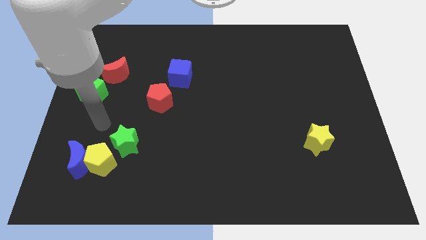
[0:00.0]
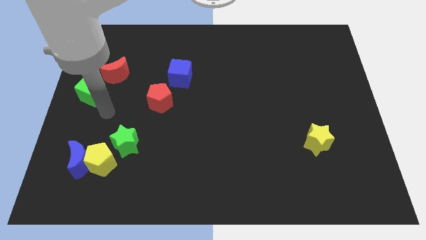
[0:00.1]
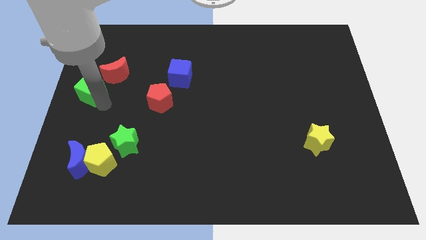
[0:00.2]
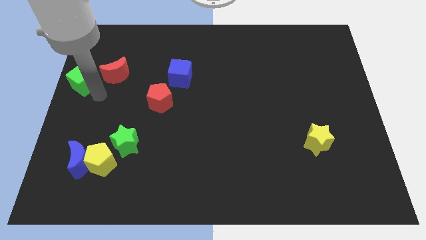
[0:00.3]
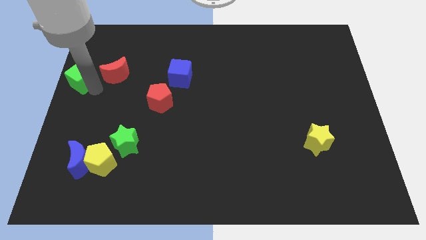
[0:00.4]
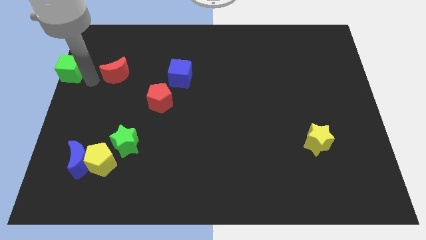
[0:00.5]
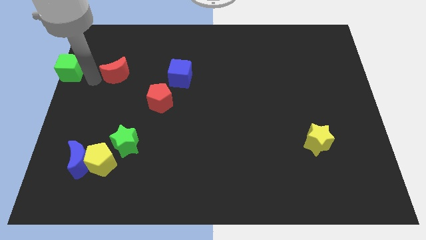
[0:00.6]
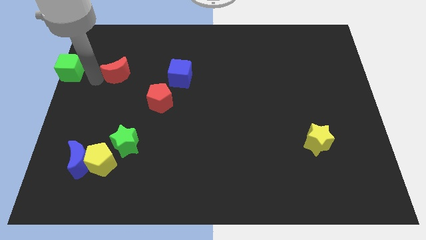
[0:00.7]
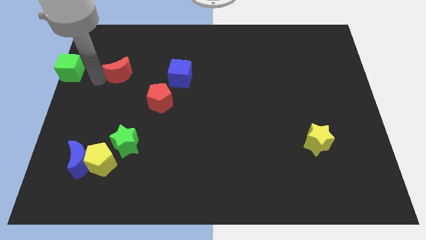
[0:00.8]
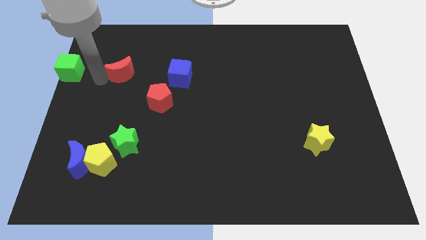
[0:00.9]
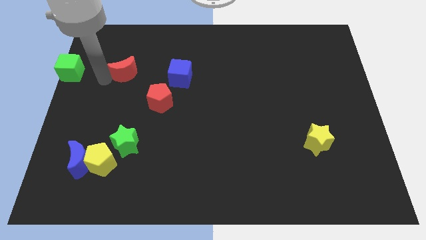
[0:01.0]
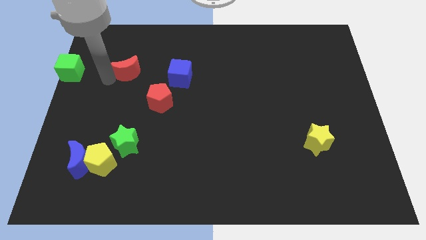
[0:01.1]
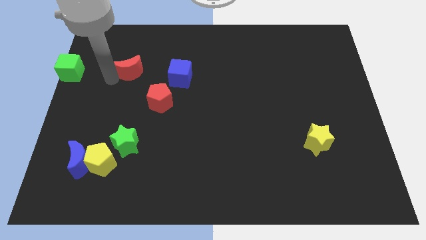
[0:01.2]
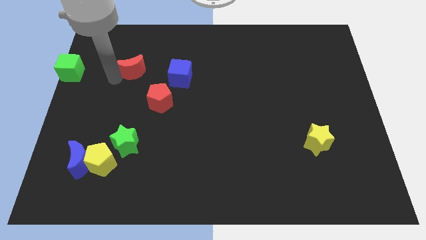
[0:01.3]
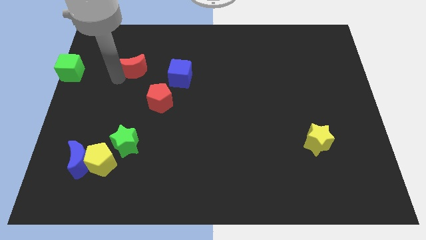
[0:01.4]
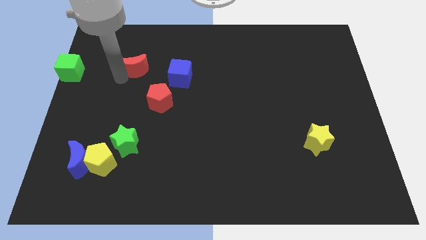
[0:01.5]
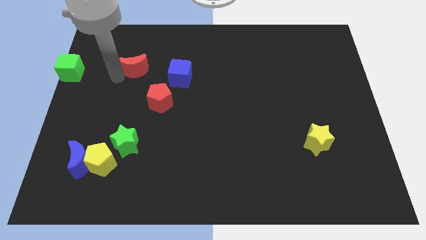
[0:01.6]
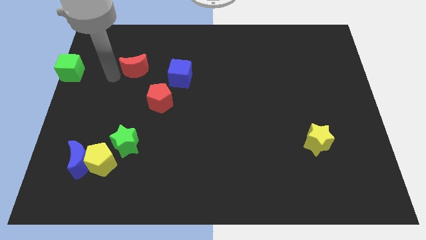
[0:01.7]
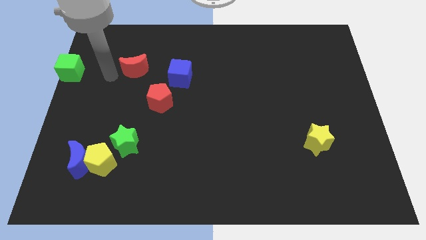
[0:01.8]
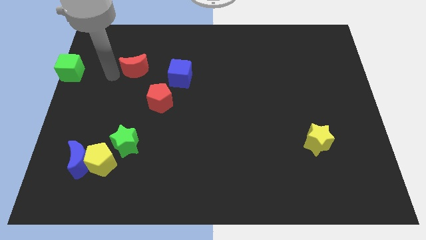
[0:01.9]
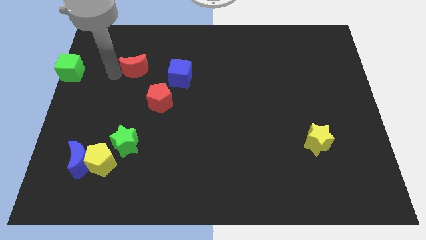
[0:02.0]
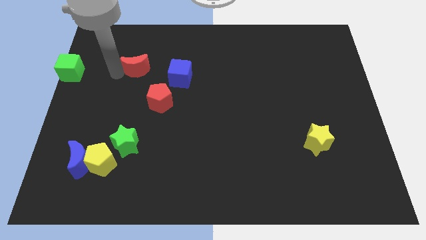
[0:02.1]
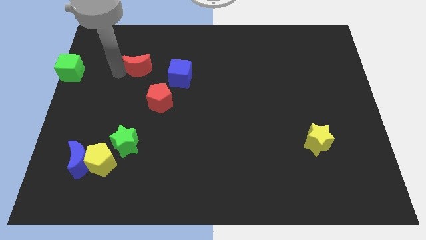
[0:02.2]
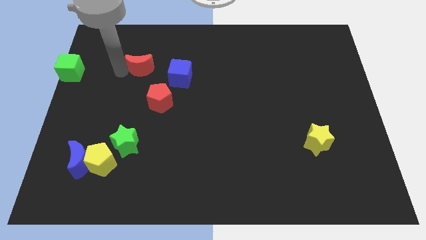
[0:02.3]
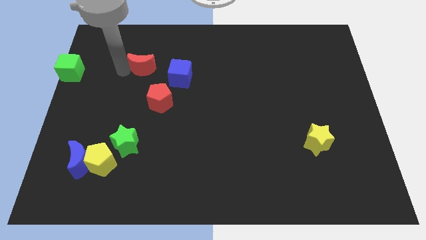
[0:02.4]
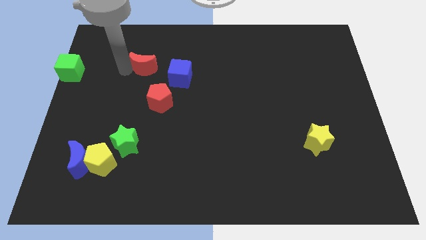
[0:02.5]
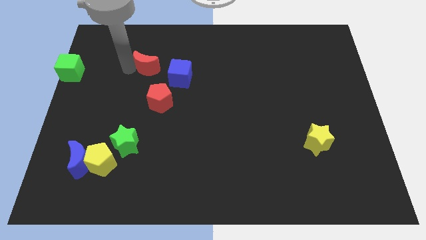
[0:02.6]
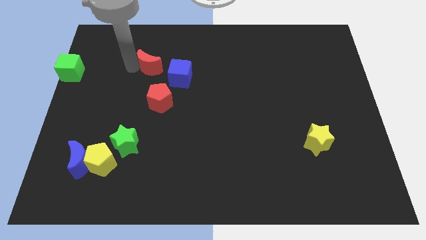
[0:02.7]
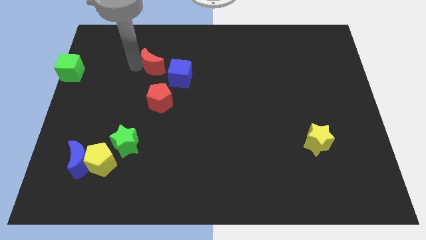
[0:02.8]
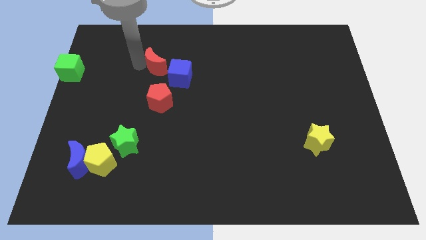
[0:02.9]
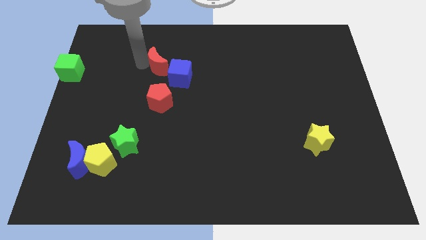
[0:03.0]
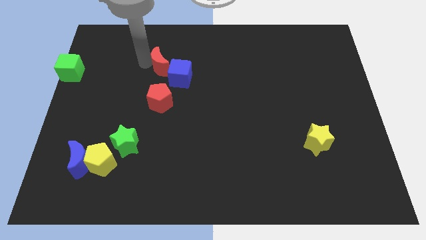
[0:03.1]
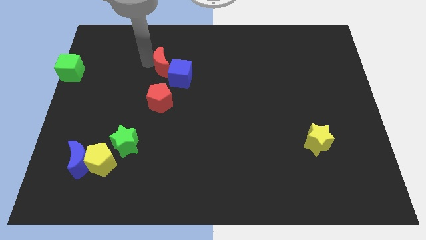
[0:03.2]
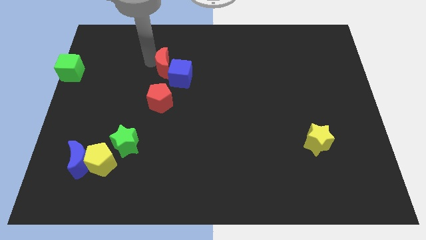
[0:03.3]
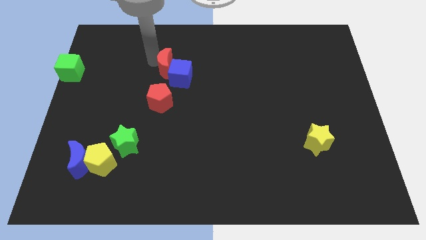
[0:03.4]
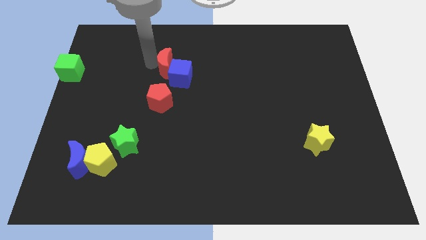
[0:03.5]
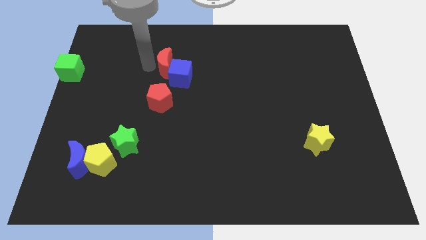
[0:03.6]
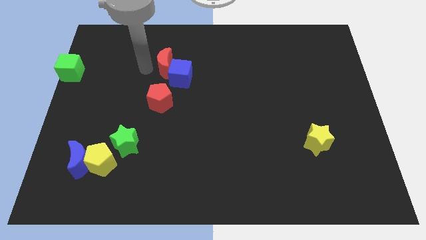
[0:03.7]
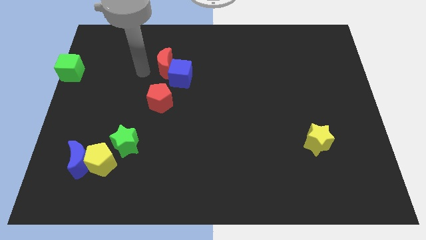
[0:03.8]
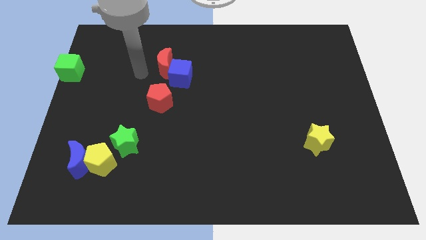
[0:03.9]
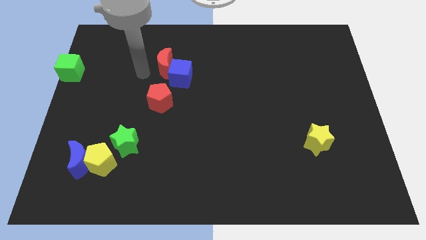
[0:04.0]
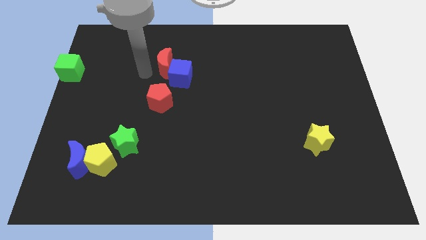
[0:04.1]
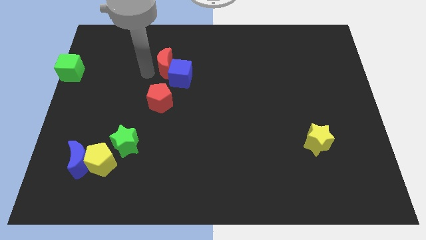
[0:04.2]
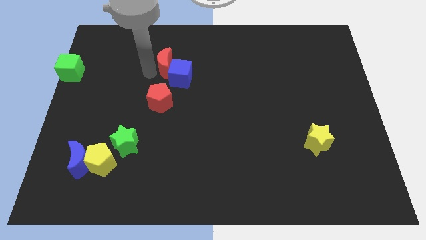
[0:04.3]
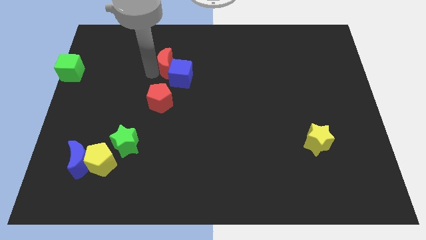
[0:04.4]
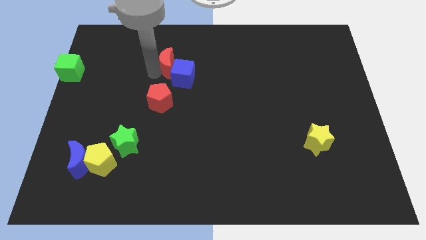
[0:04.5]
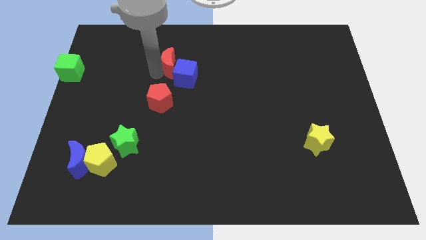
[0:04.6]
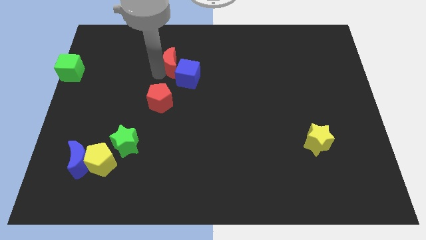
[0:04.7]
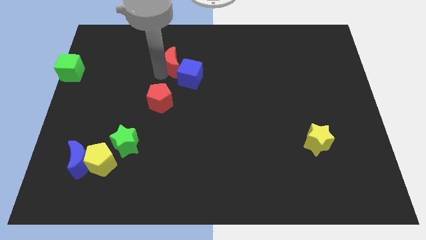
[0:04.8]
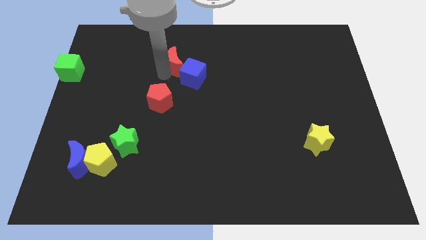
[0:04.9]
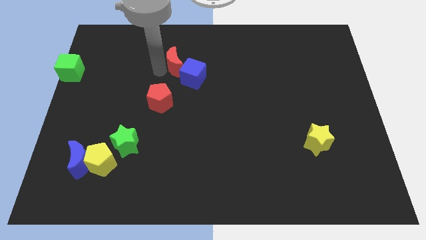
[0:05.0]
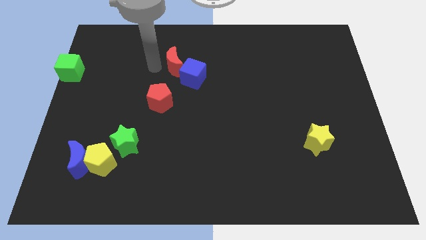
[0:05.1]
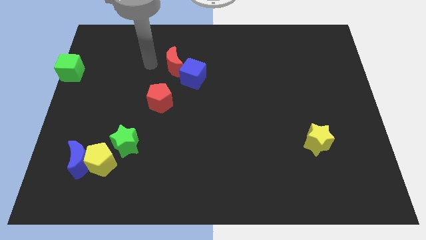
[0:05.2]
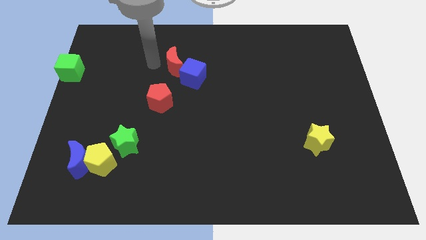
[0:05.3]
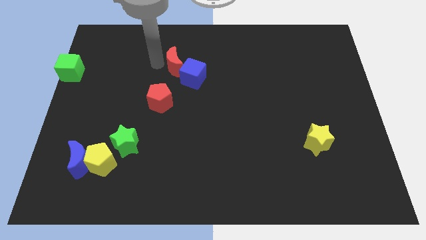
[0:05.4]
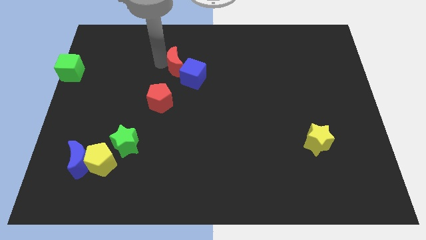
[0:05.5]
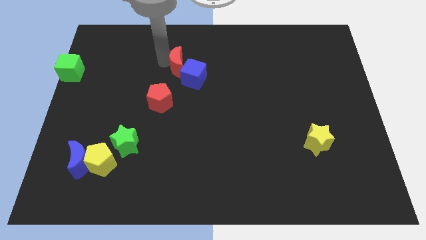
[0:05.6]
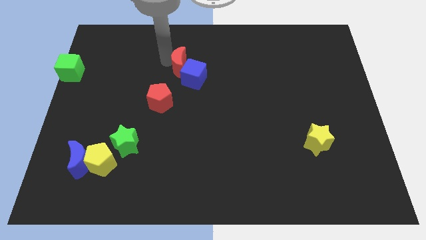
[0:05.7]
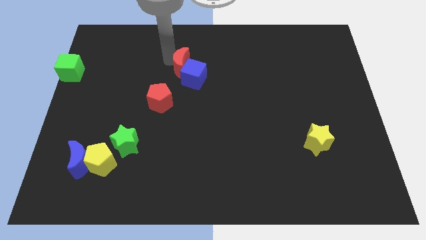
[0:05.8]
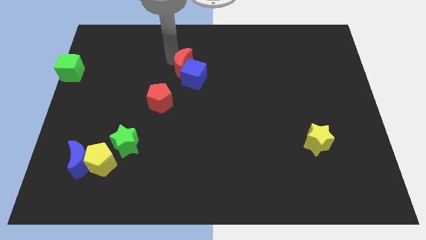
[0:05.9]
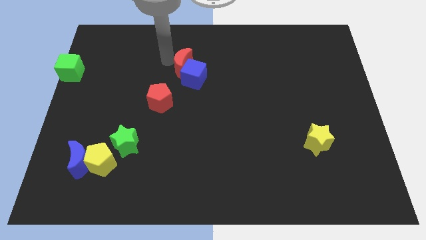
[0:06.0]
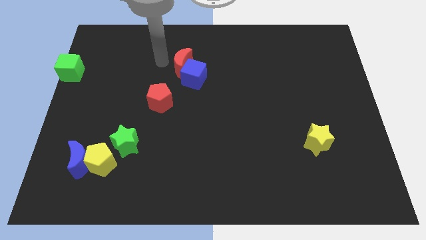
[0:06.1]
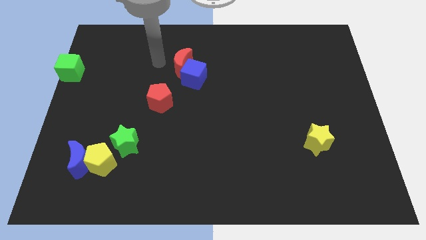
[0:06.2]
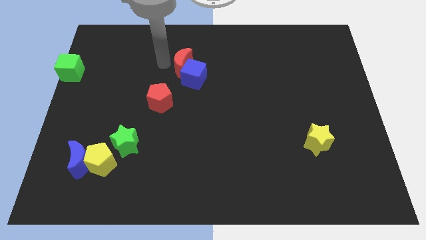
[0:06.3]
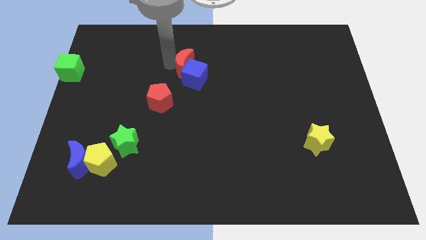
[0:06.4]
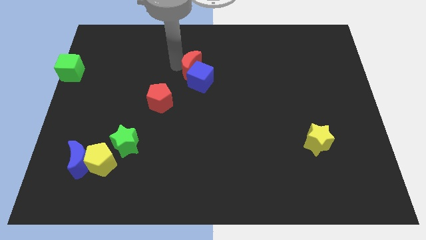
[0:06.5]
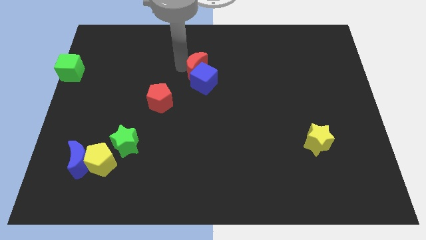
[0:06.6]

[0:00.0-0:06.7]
push the red moon to the right

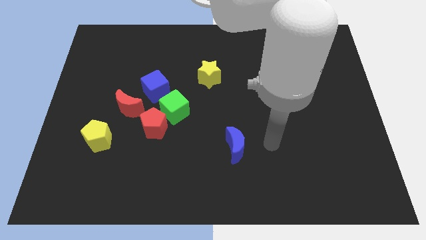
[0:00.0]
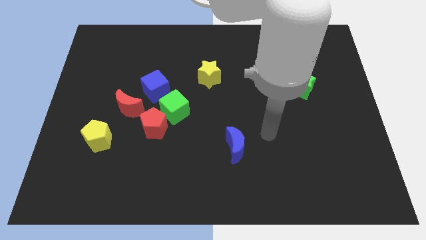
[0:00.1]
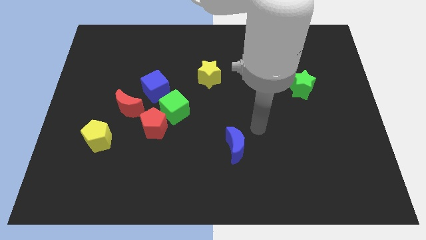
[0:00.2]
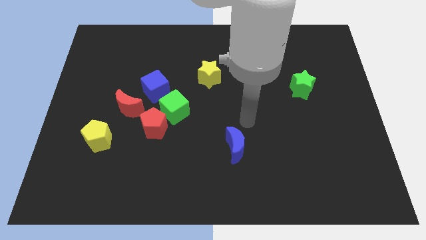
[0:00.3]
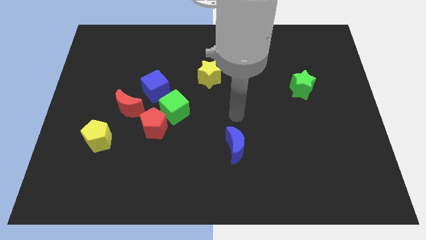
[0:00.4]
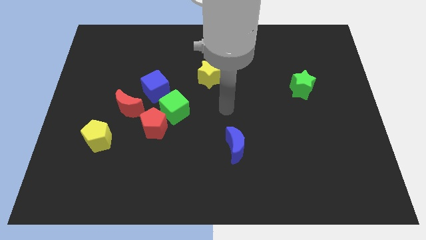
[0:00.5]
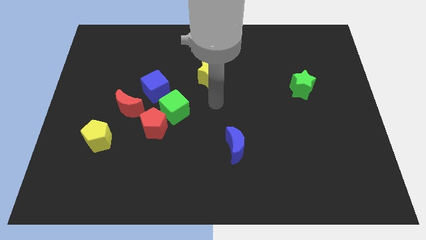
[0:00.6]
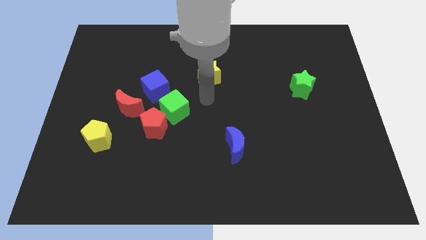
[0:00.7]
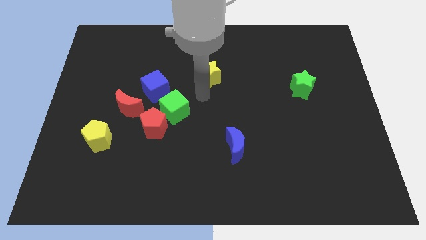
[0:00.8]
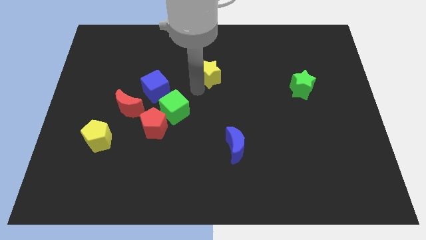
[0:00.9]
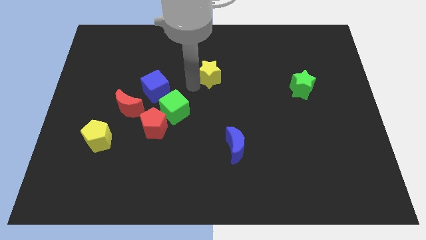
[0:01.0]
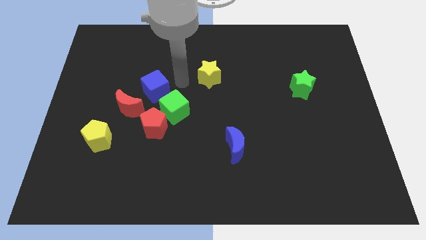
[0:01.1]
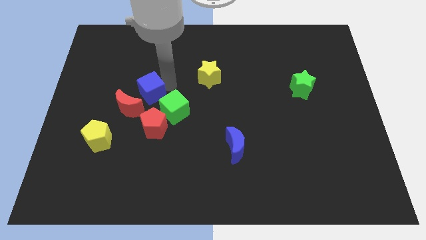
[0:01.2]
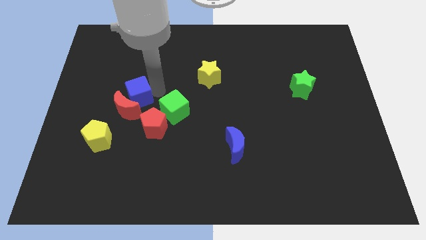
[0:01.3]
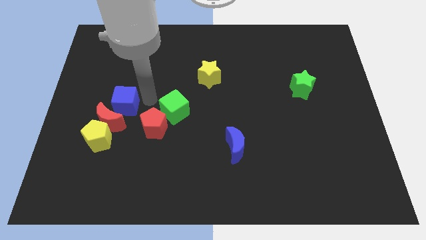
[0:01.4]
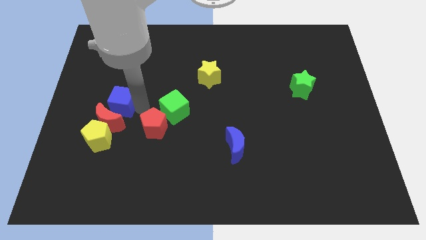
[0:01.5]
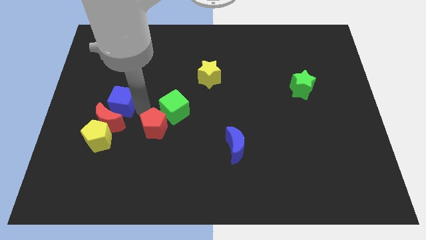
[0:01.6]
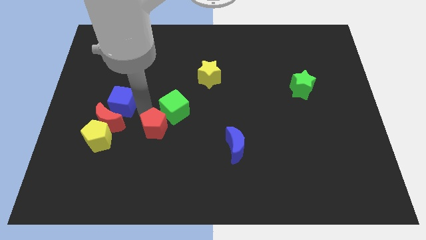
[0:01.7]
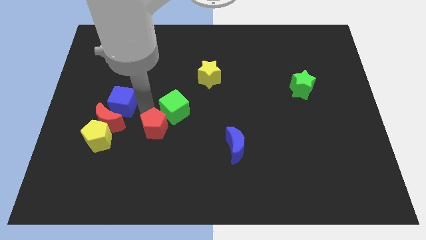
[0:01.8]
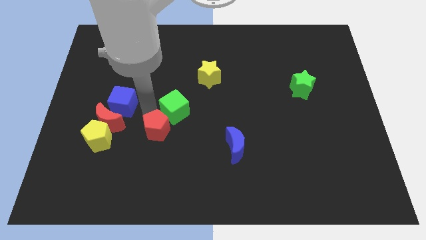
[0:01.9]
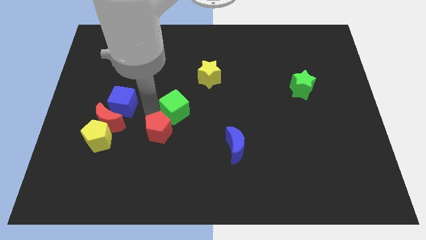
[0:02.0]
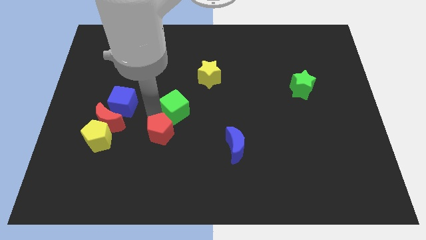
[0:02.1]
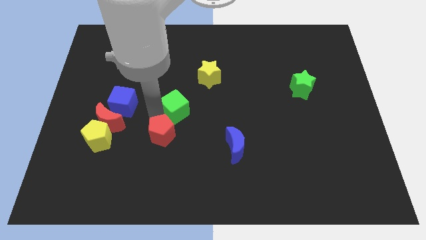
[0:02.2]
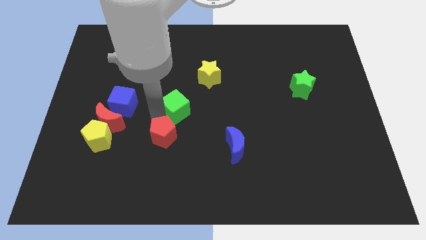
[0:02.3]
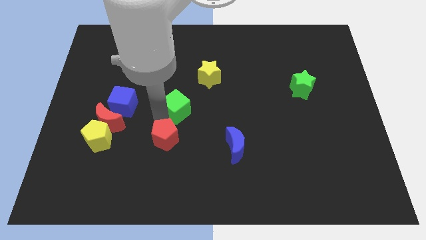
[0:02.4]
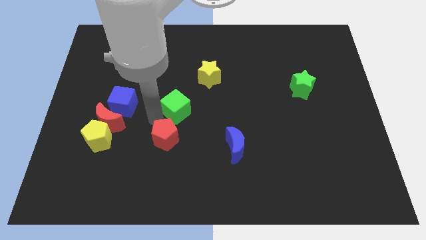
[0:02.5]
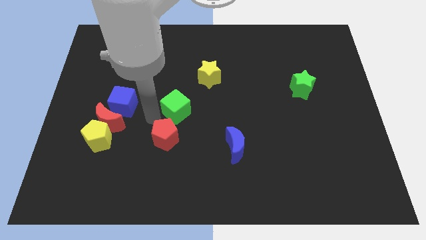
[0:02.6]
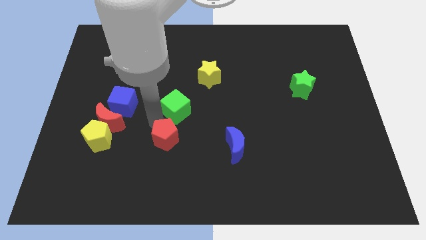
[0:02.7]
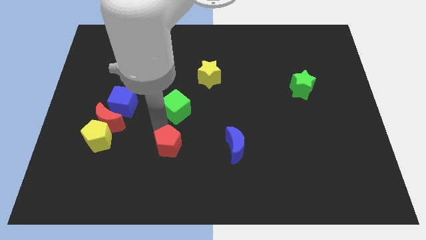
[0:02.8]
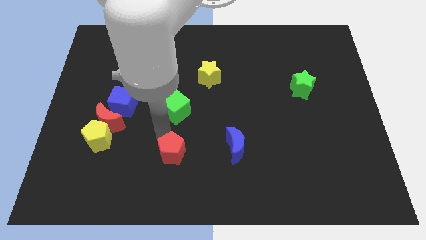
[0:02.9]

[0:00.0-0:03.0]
slightly move the red pentagon down and right diagonally
